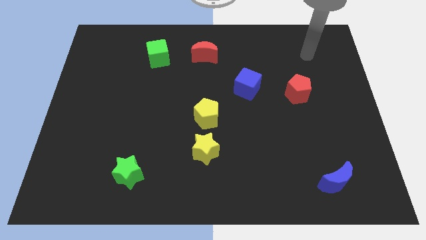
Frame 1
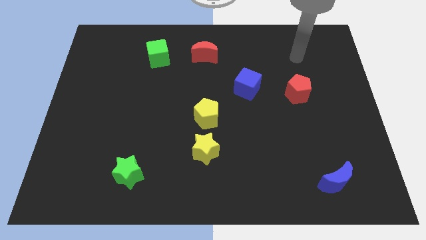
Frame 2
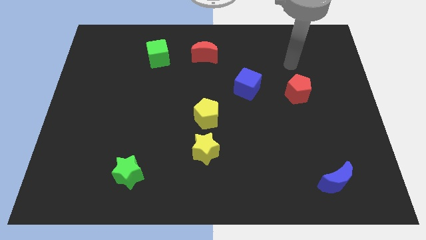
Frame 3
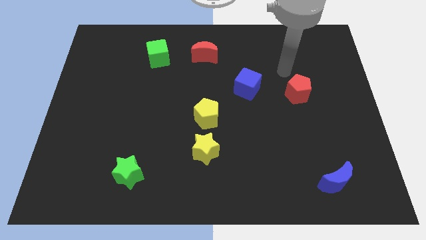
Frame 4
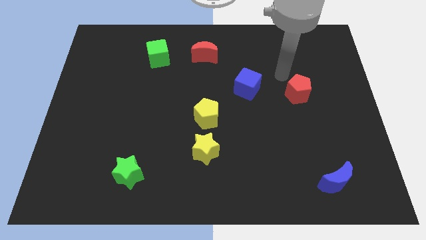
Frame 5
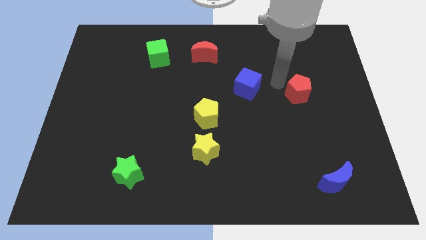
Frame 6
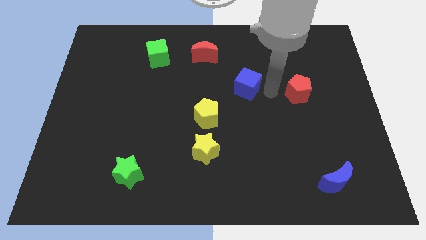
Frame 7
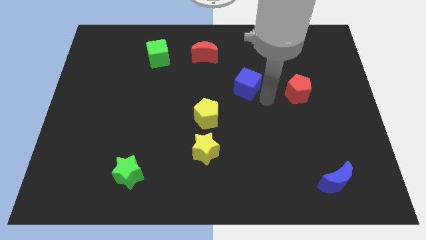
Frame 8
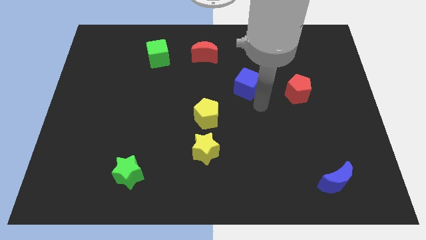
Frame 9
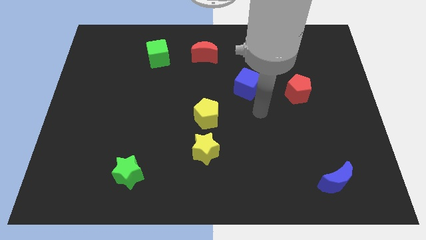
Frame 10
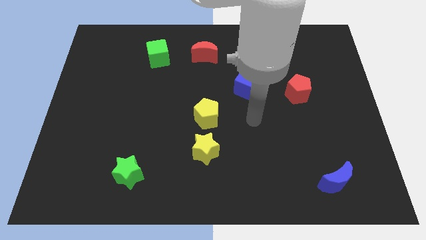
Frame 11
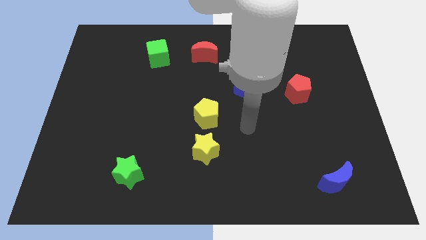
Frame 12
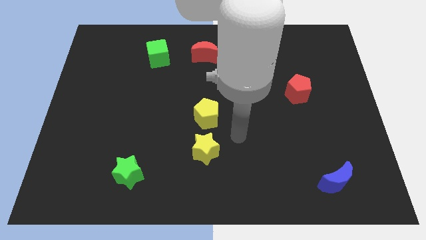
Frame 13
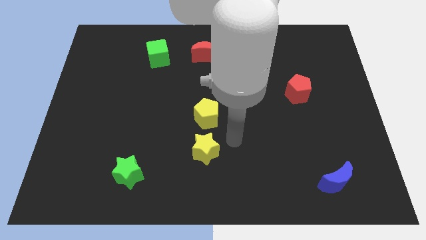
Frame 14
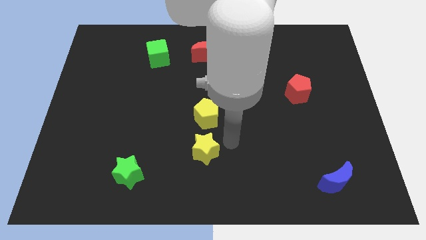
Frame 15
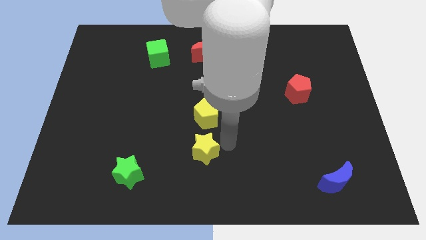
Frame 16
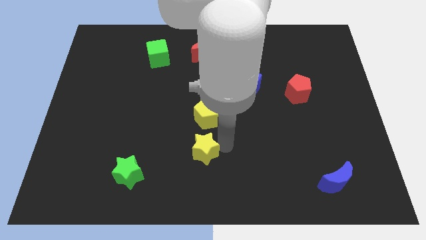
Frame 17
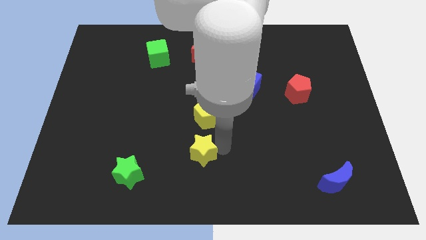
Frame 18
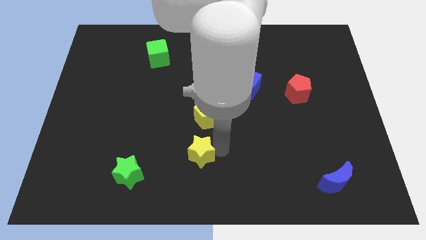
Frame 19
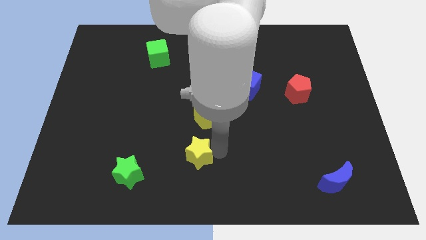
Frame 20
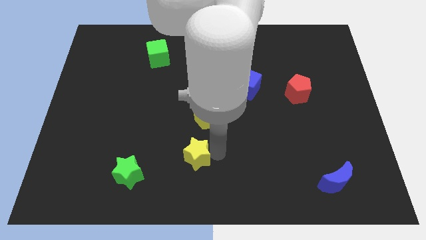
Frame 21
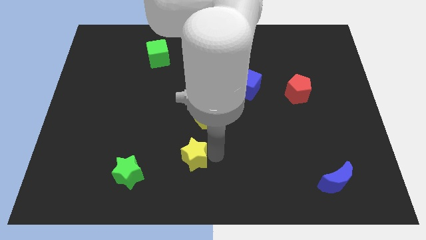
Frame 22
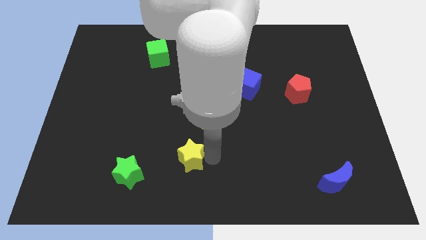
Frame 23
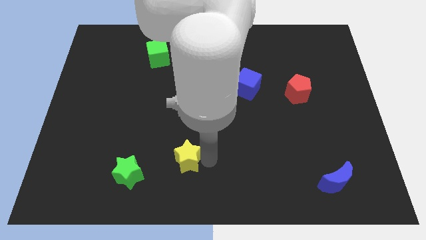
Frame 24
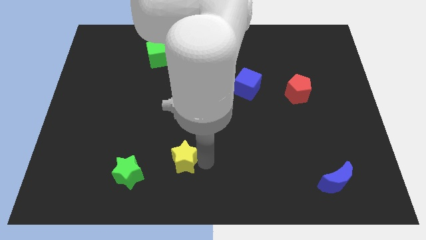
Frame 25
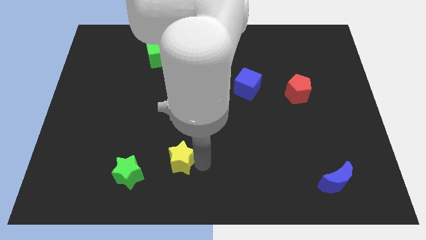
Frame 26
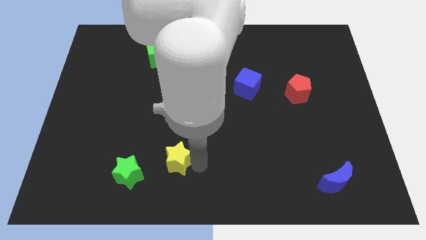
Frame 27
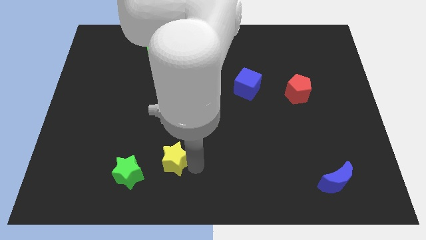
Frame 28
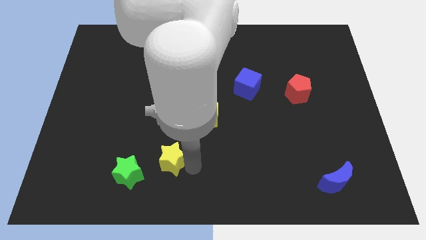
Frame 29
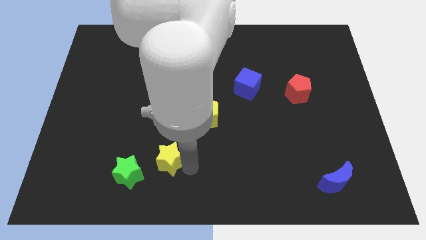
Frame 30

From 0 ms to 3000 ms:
move the yellow star a little bit to the left

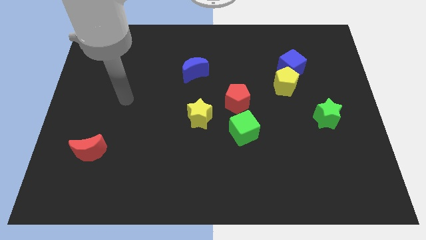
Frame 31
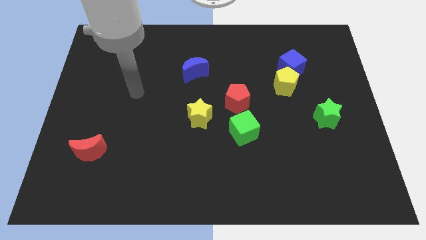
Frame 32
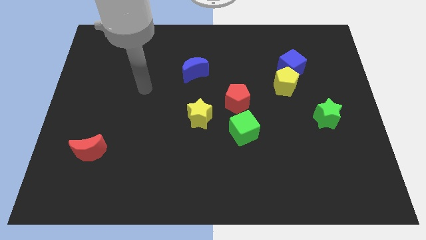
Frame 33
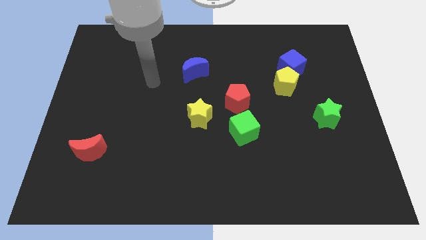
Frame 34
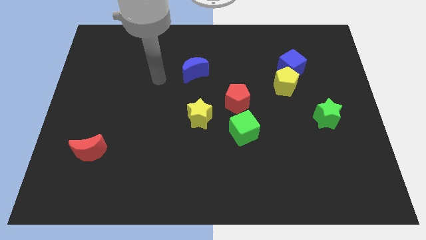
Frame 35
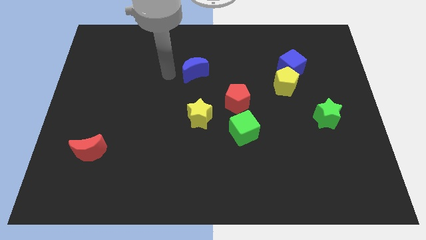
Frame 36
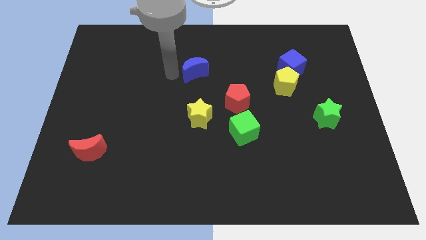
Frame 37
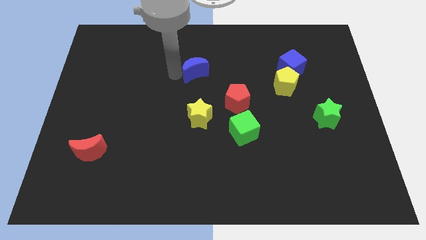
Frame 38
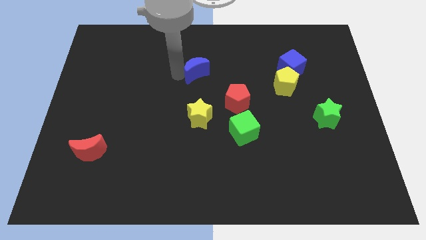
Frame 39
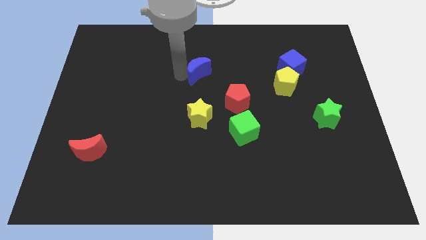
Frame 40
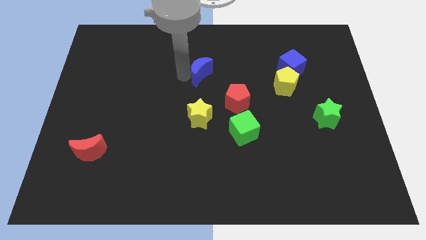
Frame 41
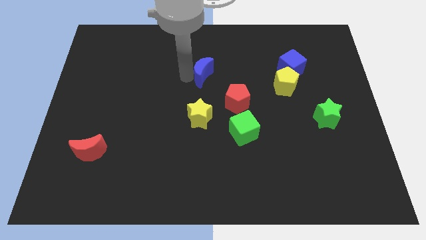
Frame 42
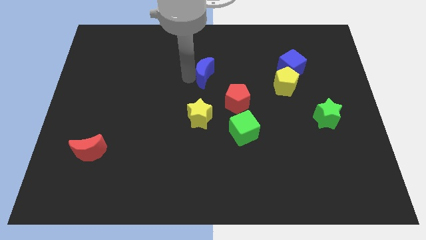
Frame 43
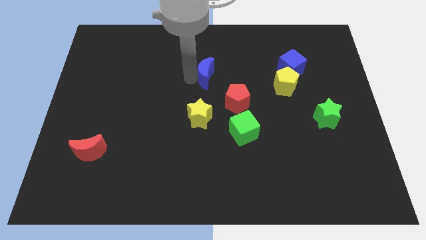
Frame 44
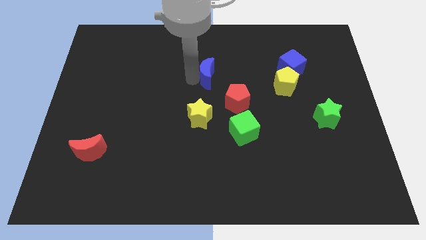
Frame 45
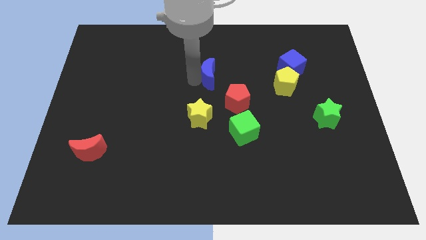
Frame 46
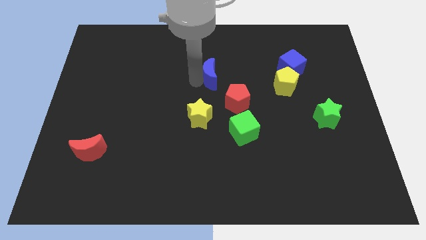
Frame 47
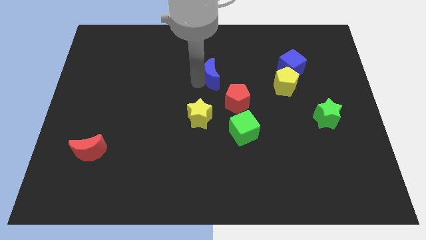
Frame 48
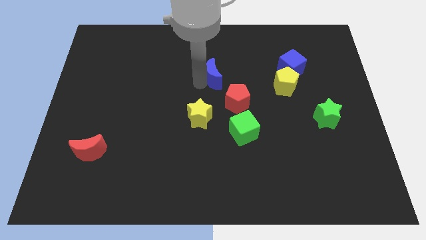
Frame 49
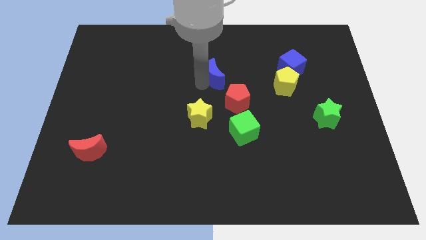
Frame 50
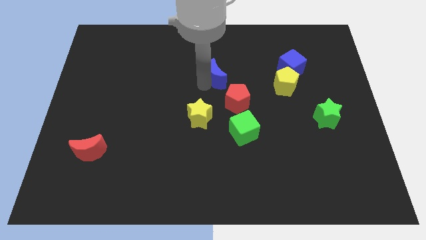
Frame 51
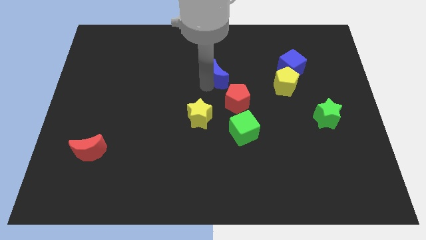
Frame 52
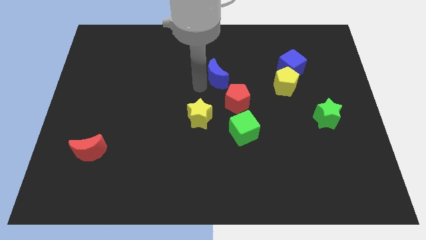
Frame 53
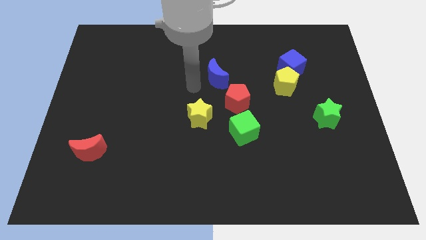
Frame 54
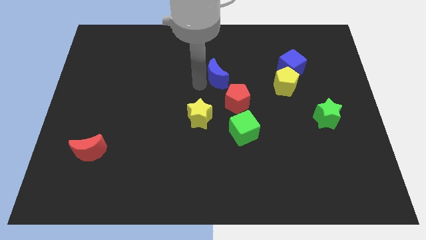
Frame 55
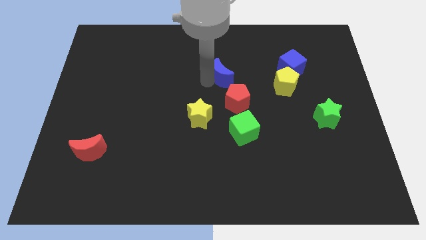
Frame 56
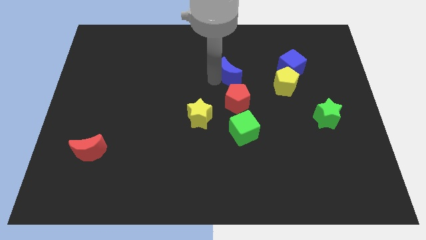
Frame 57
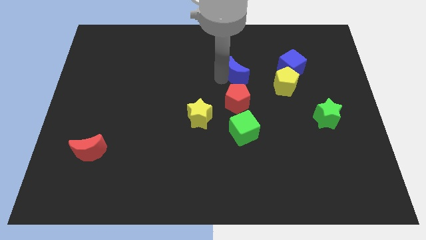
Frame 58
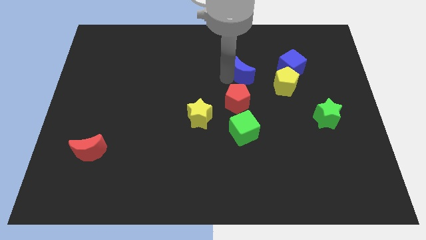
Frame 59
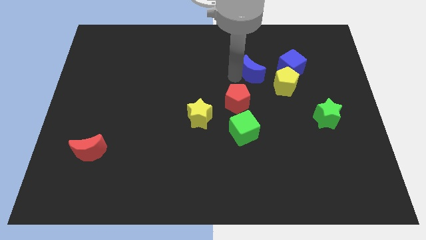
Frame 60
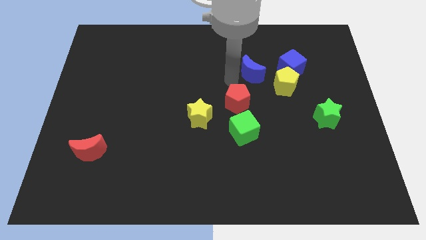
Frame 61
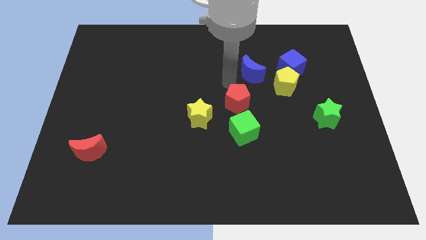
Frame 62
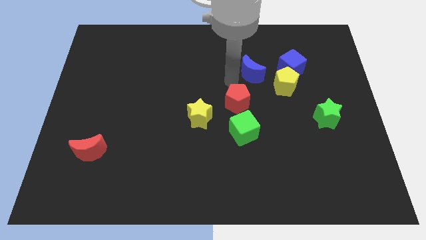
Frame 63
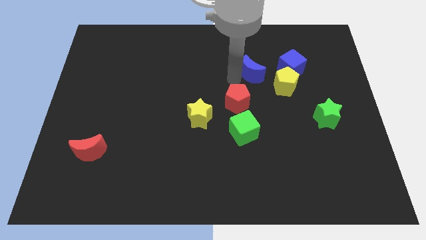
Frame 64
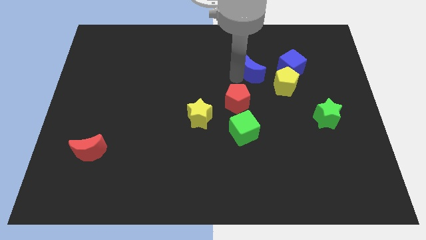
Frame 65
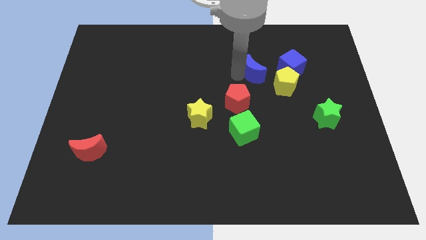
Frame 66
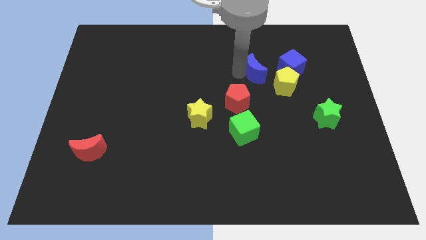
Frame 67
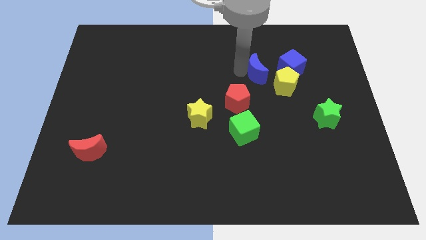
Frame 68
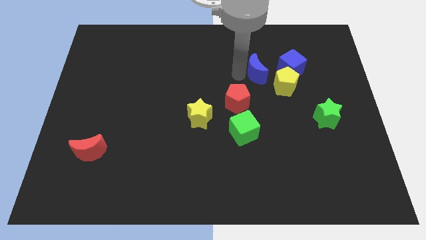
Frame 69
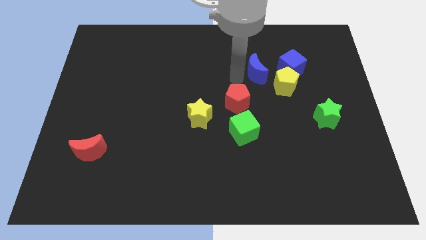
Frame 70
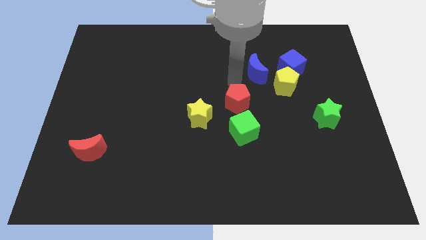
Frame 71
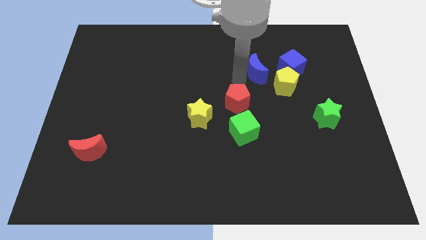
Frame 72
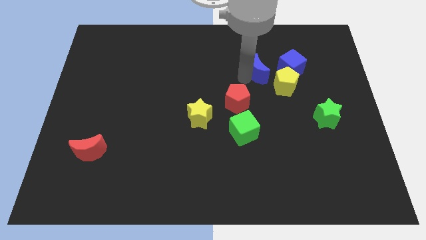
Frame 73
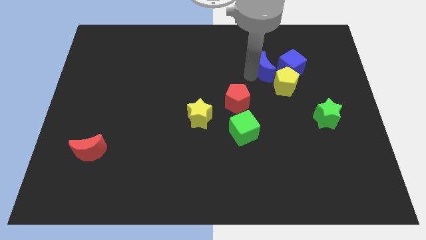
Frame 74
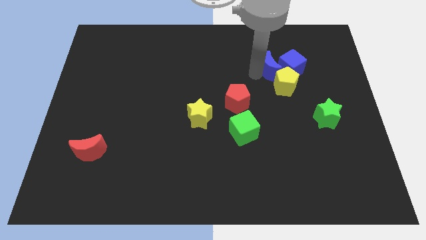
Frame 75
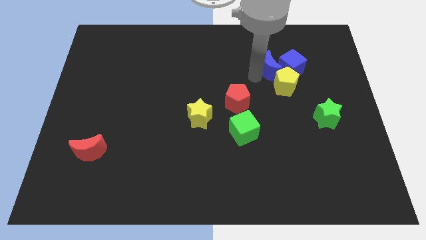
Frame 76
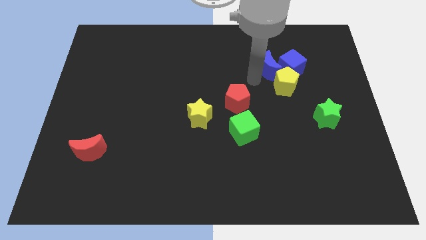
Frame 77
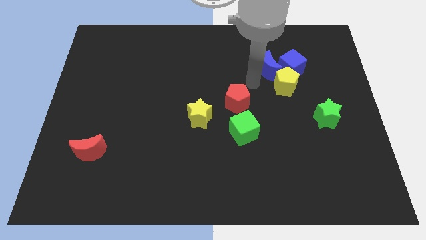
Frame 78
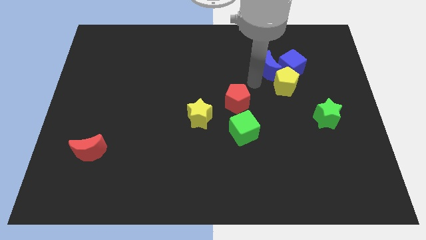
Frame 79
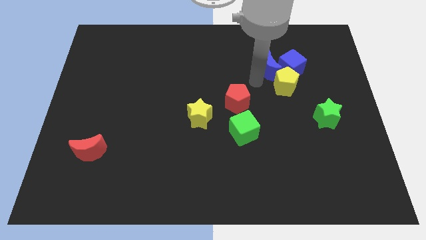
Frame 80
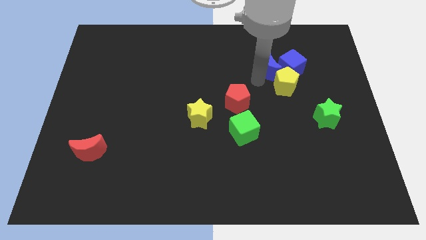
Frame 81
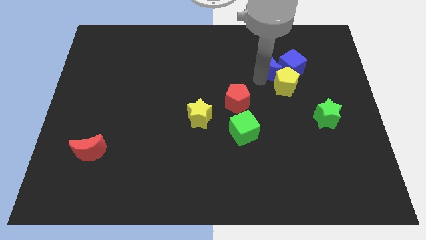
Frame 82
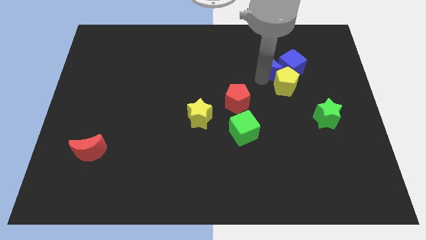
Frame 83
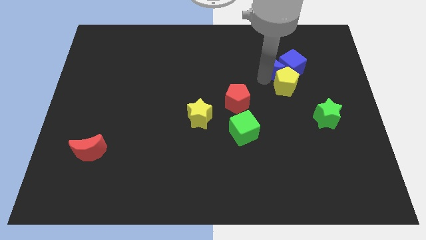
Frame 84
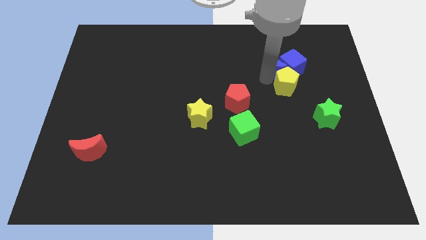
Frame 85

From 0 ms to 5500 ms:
push the blue moon right
